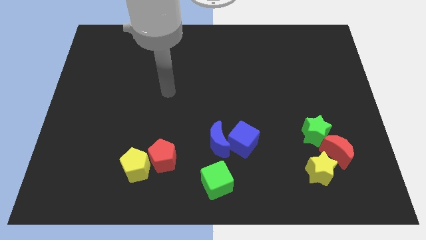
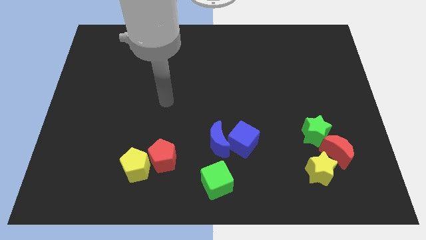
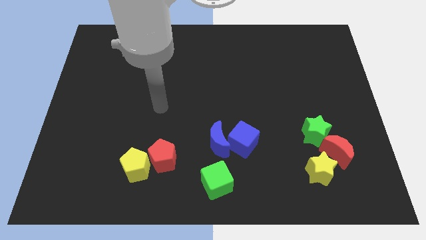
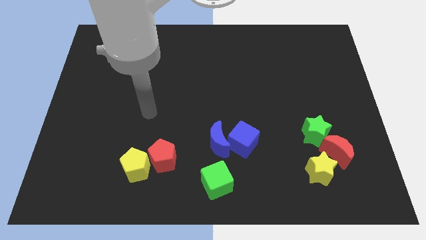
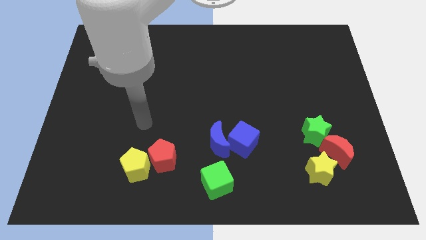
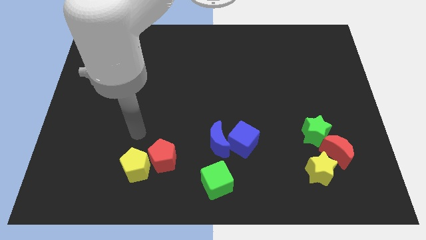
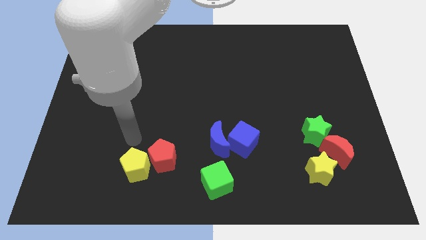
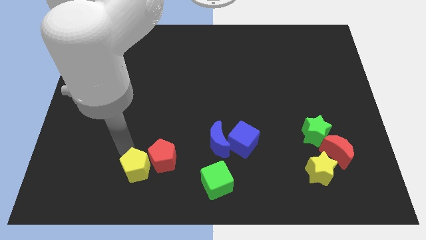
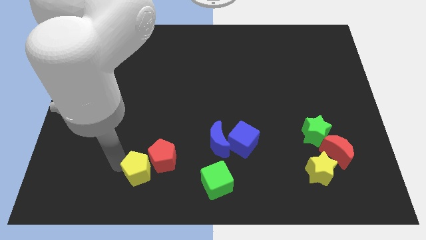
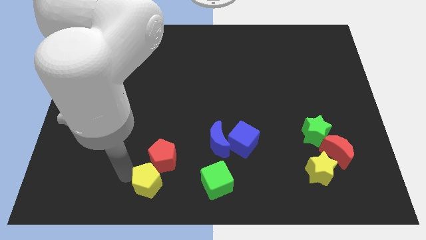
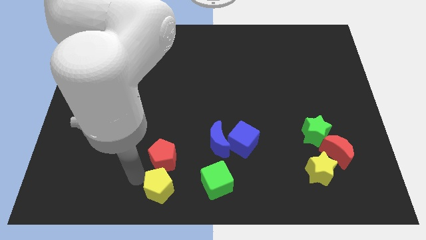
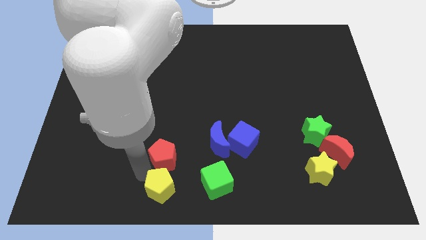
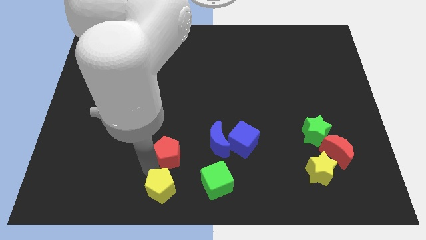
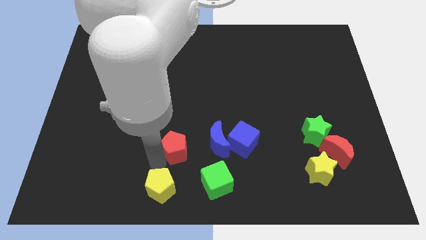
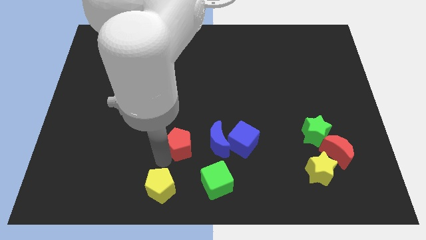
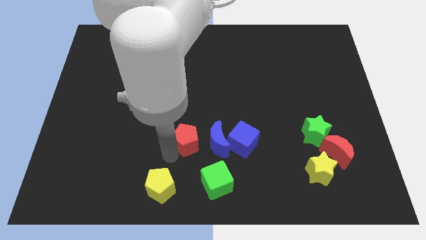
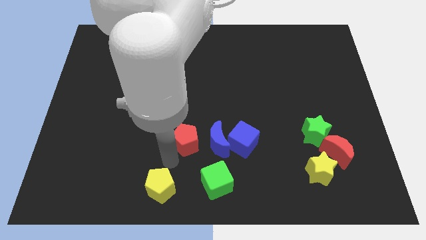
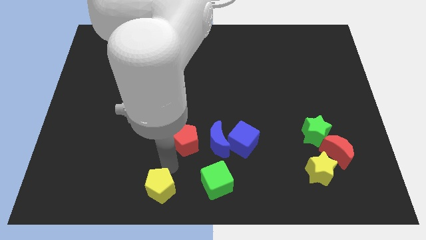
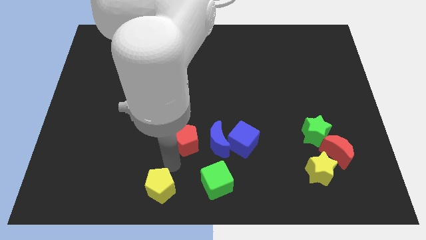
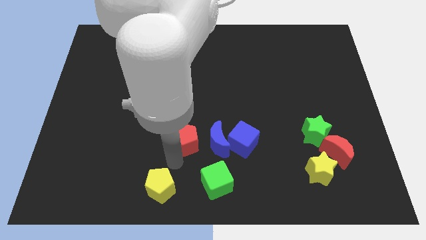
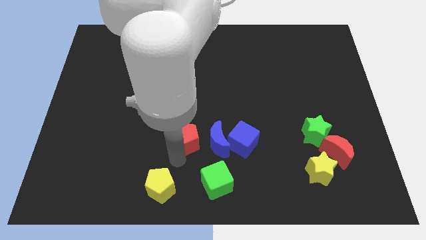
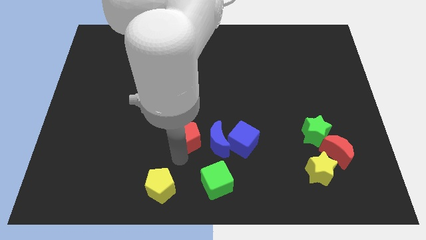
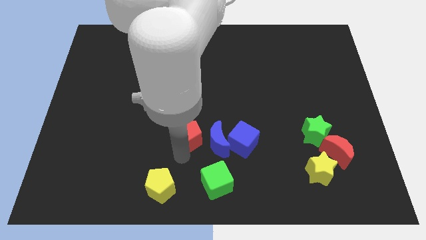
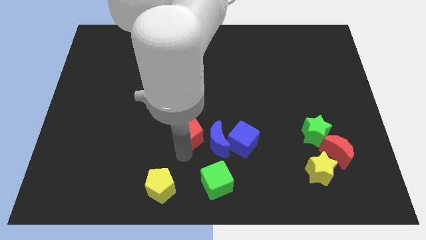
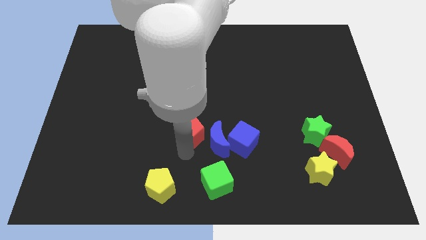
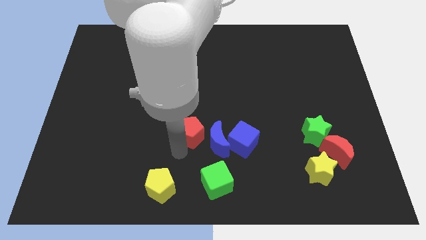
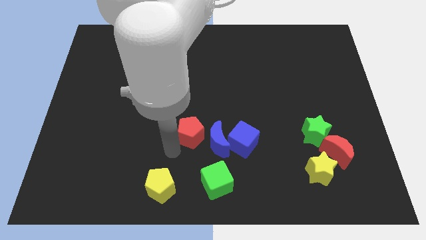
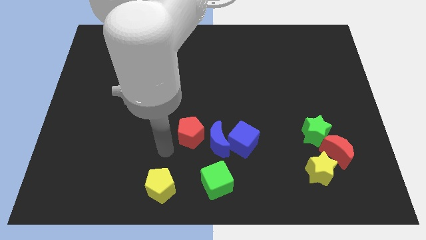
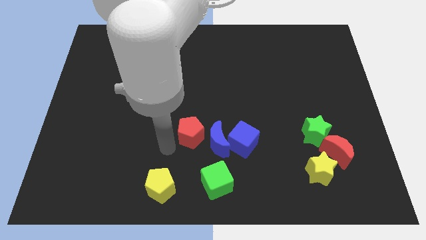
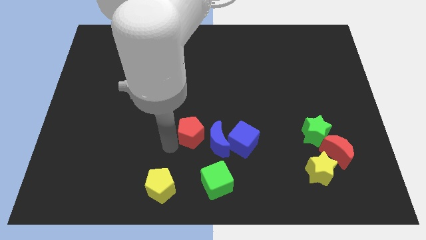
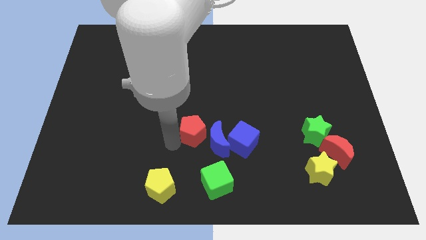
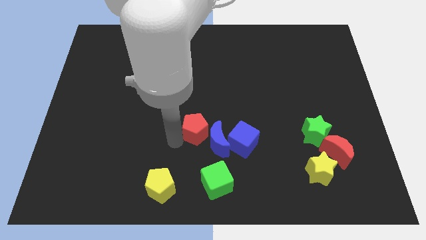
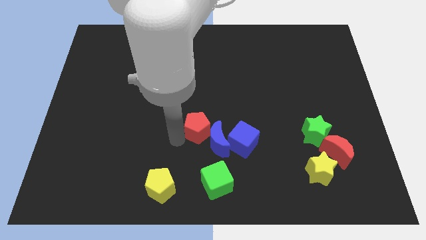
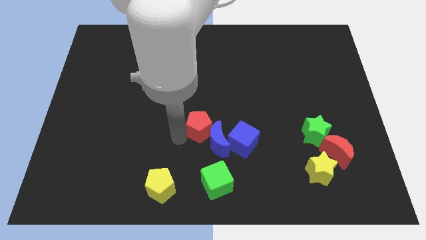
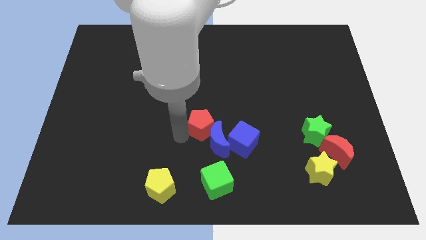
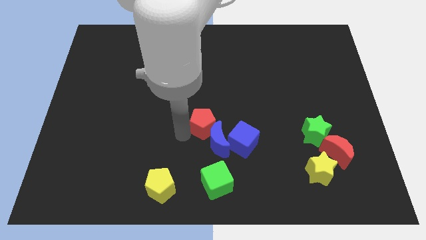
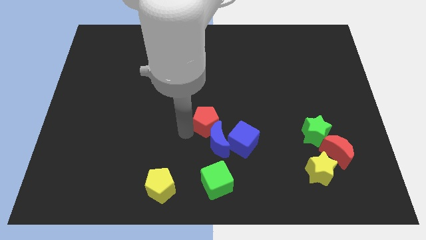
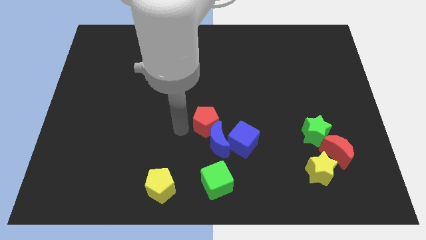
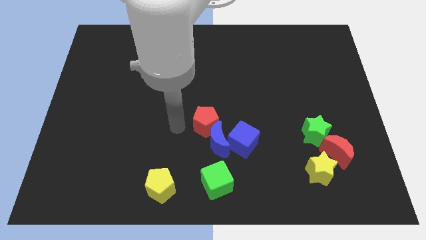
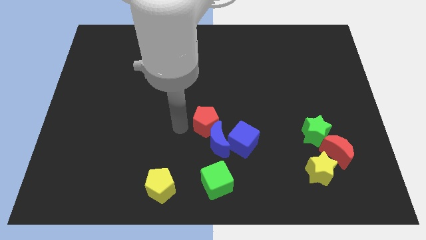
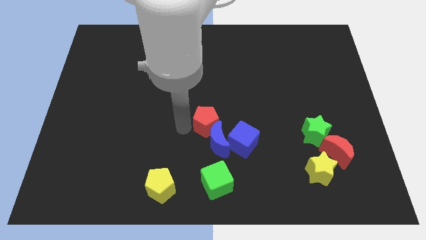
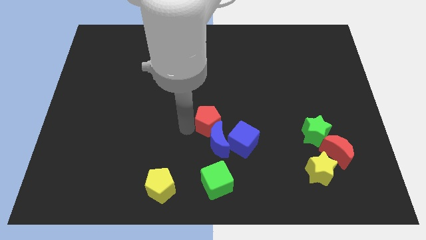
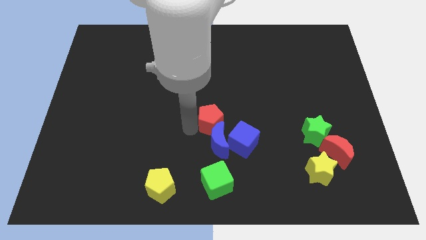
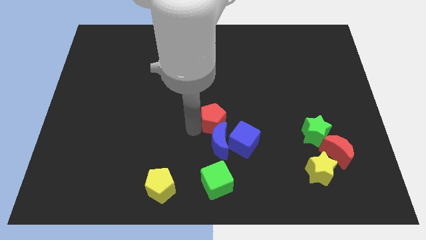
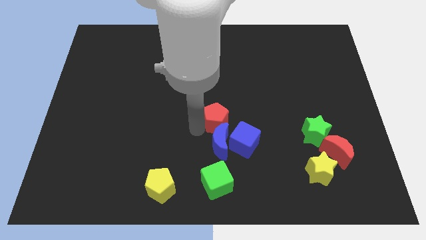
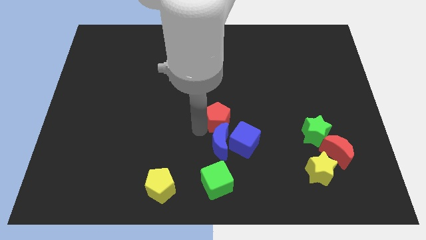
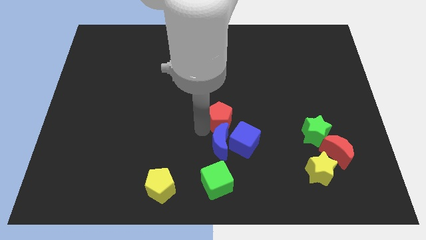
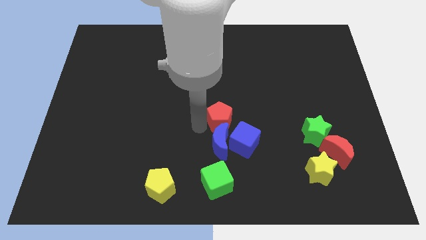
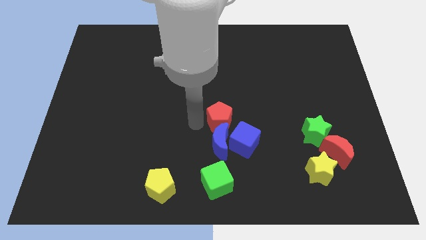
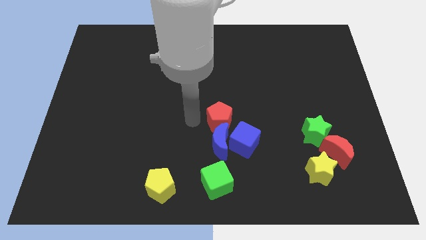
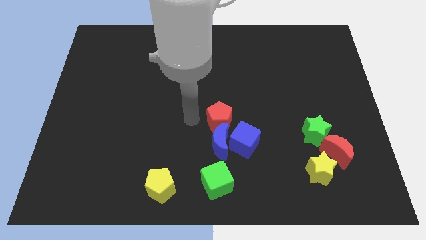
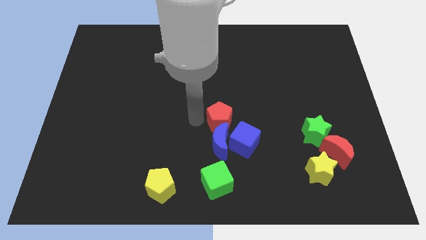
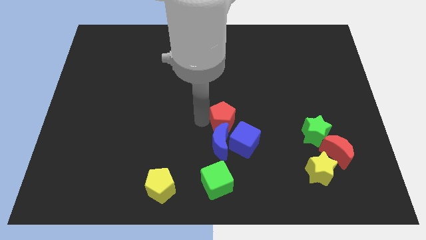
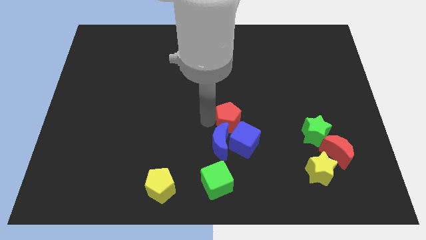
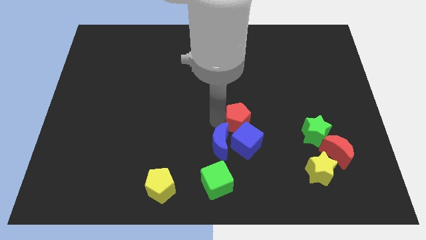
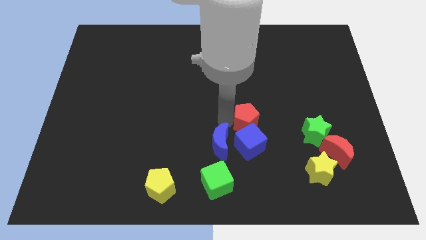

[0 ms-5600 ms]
push the red pentagon diagonally up and to the right of the blue cube

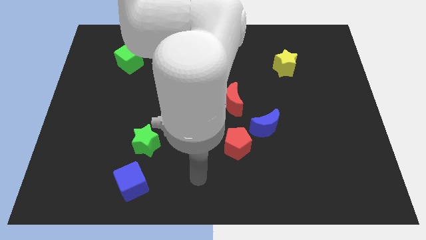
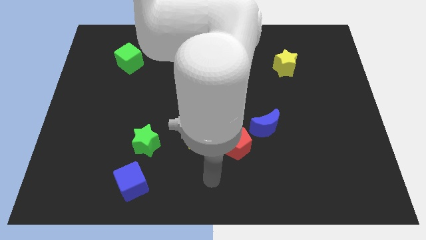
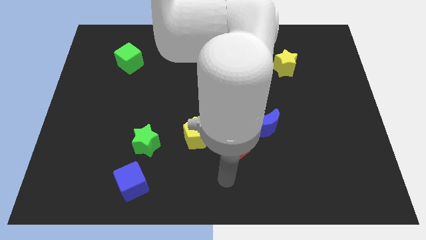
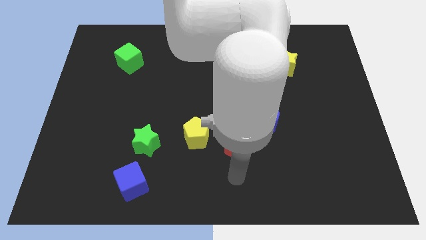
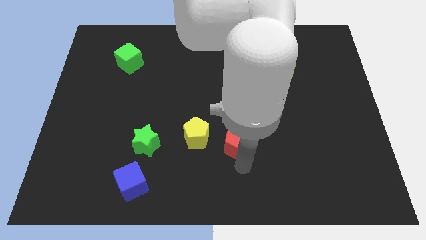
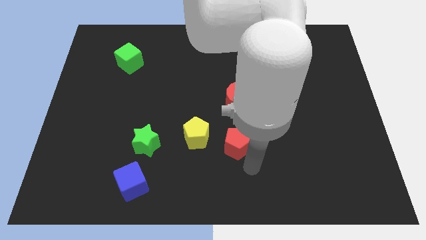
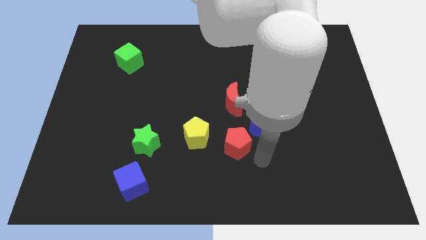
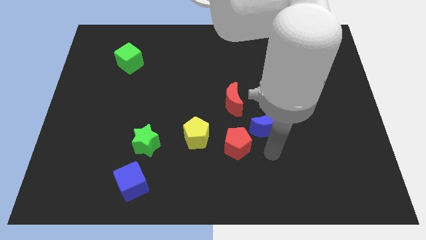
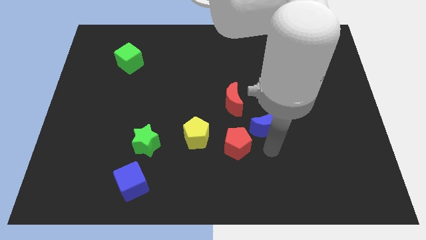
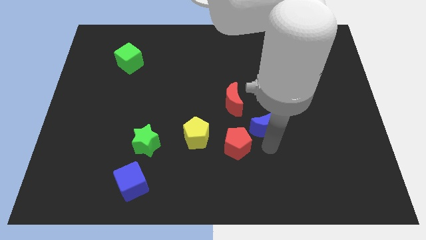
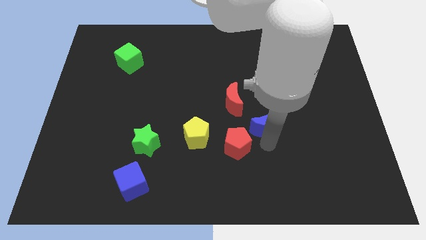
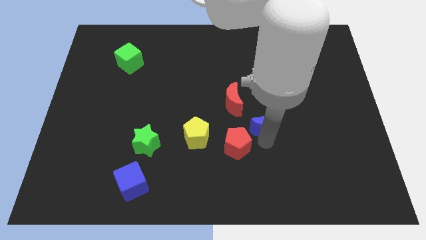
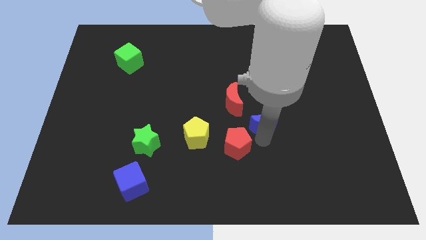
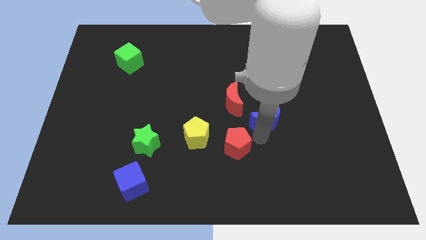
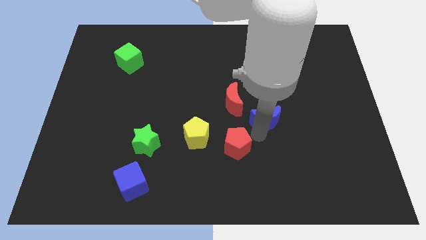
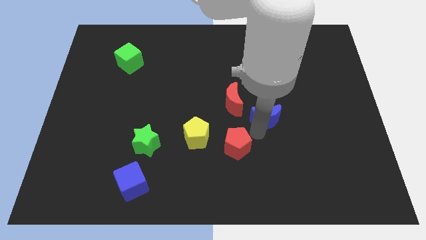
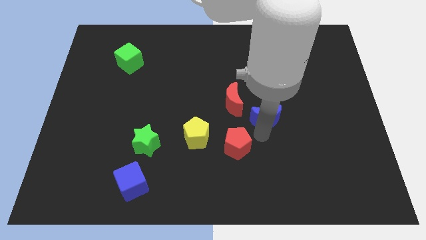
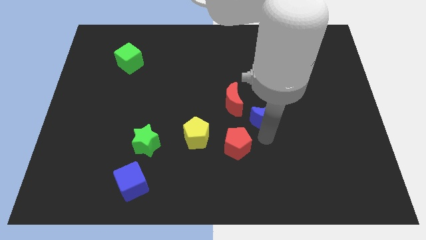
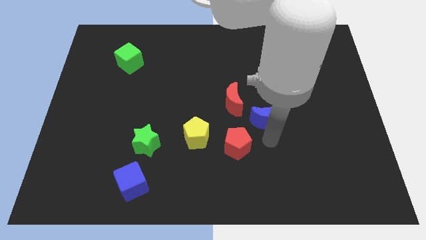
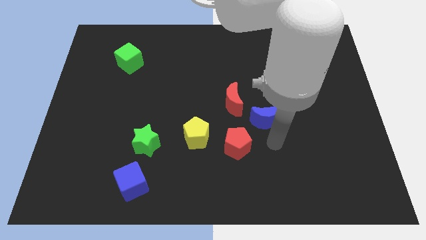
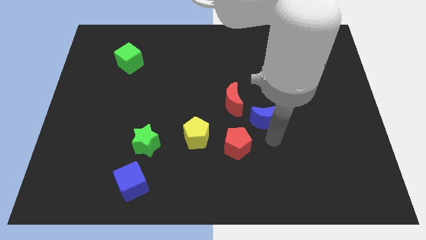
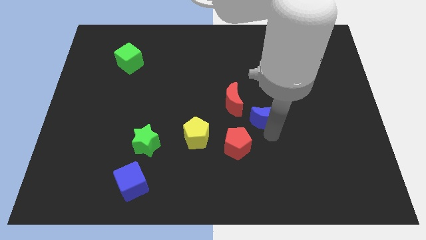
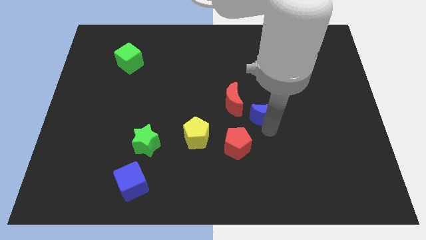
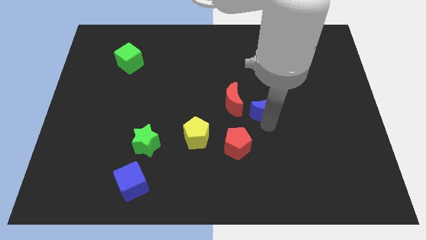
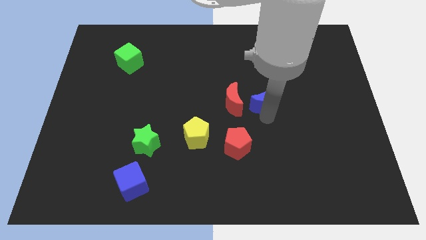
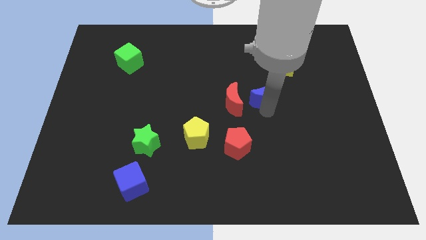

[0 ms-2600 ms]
slide the blue moon to the top right side of the red moon
